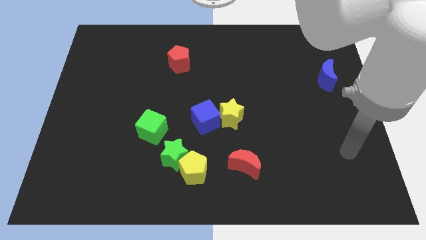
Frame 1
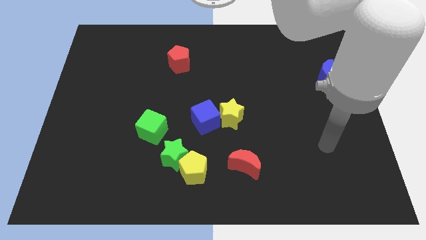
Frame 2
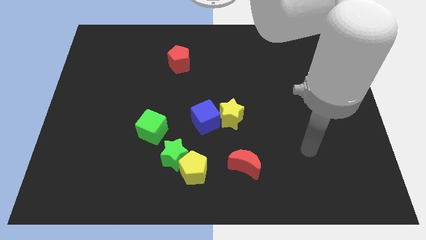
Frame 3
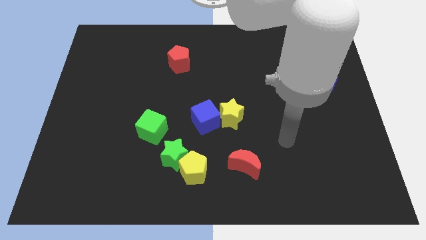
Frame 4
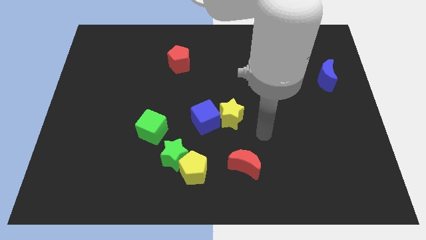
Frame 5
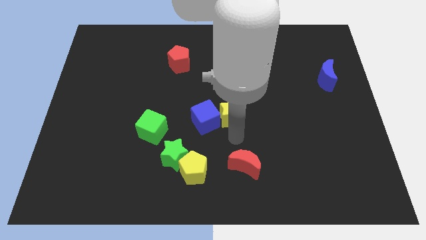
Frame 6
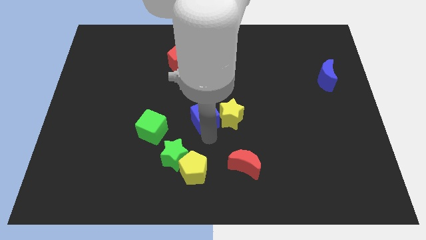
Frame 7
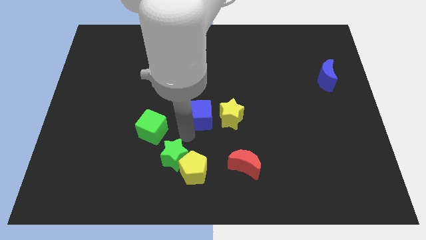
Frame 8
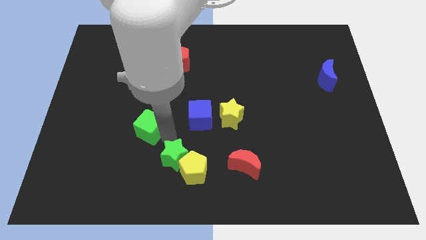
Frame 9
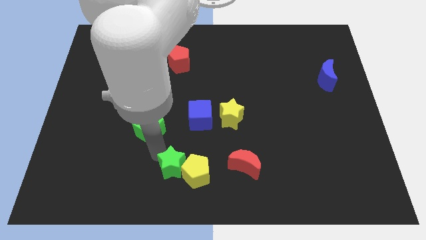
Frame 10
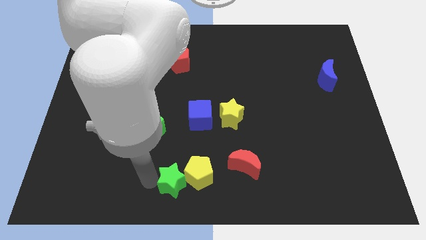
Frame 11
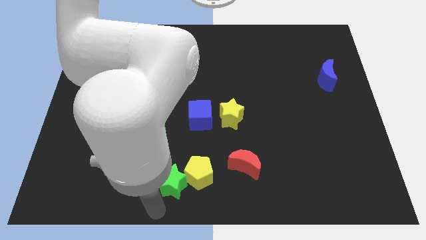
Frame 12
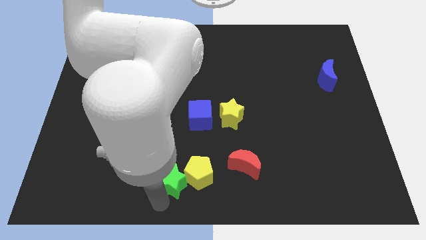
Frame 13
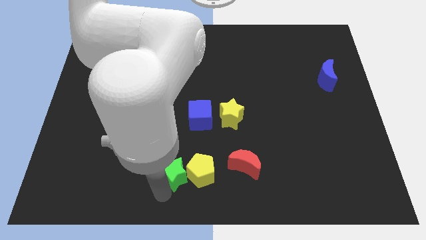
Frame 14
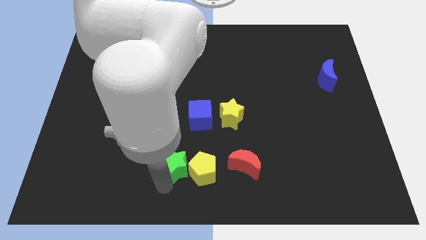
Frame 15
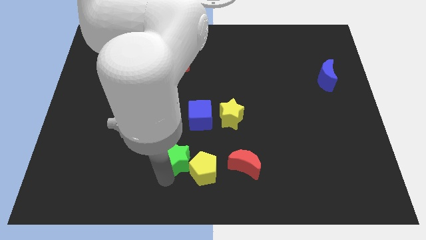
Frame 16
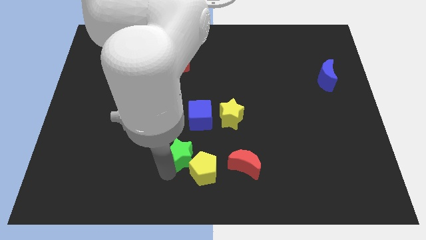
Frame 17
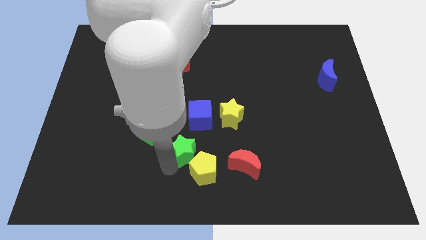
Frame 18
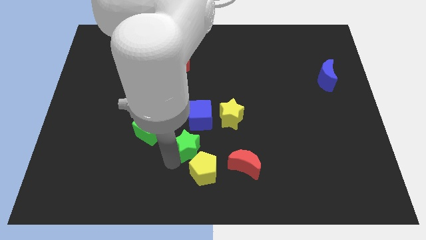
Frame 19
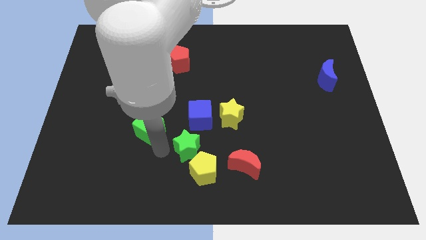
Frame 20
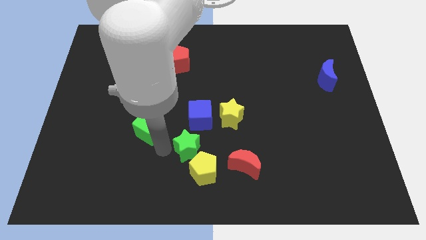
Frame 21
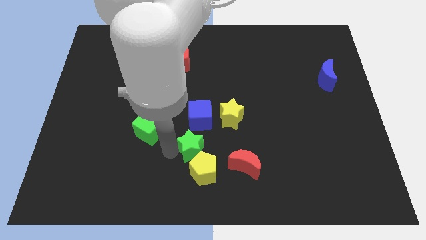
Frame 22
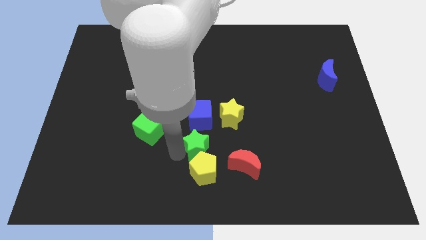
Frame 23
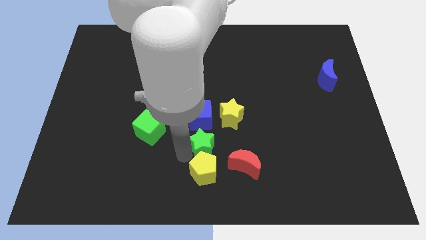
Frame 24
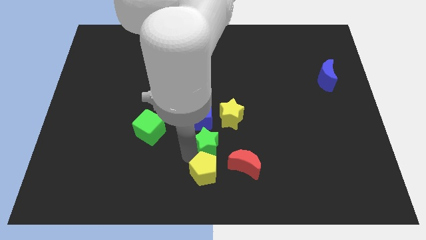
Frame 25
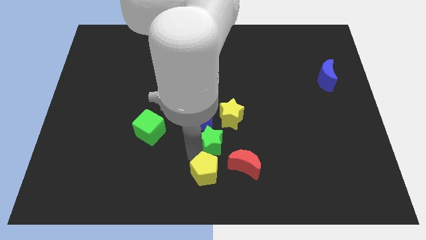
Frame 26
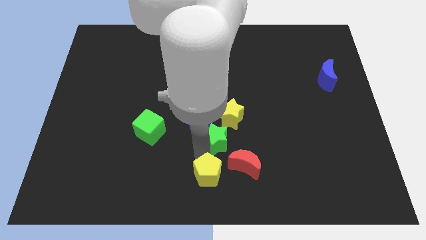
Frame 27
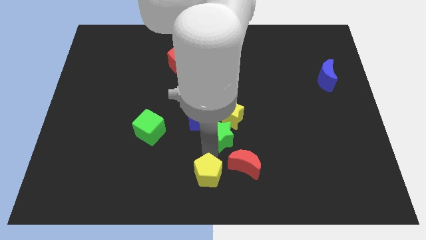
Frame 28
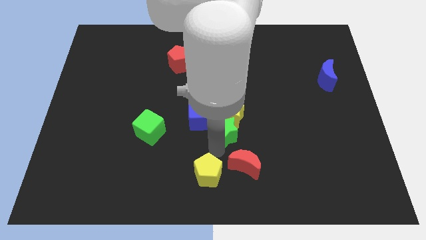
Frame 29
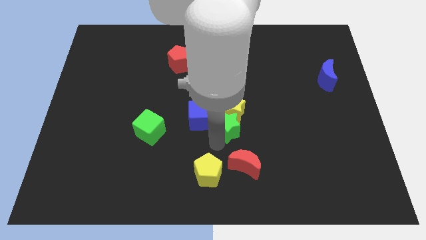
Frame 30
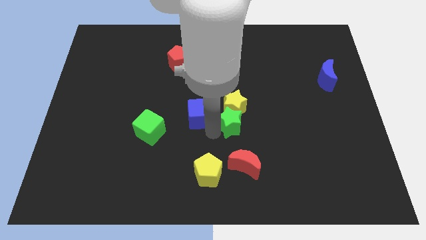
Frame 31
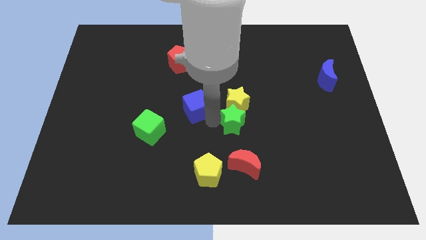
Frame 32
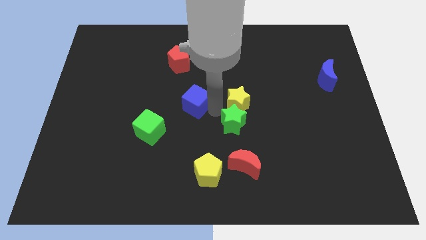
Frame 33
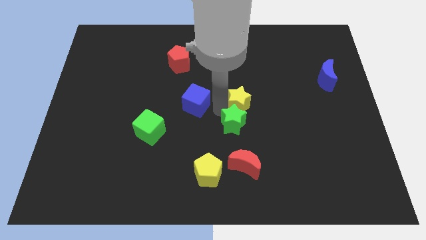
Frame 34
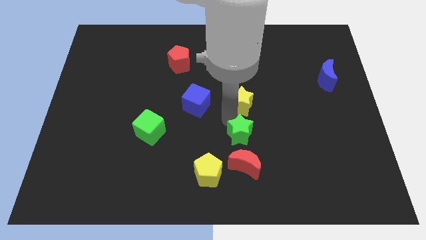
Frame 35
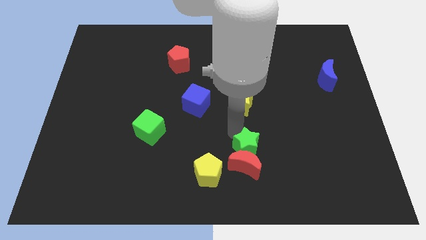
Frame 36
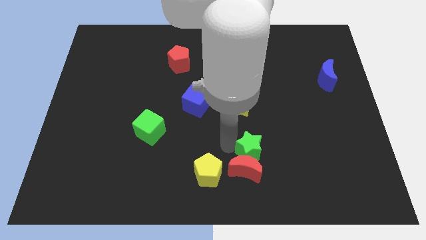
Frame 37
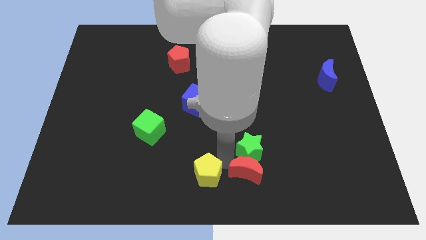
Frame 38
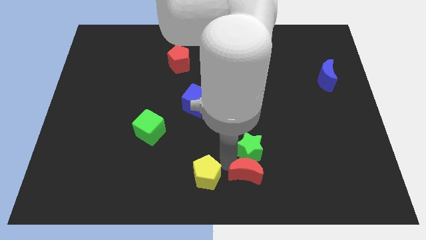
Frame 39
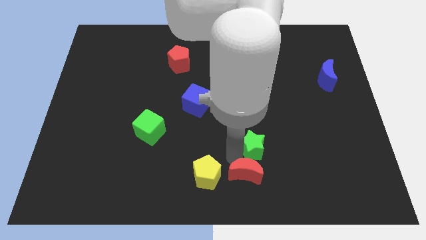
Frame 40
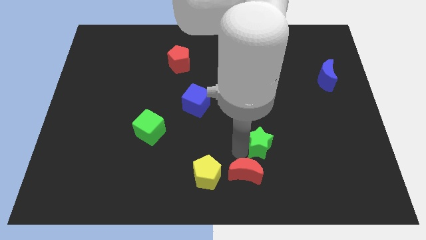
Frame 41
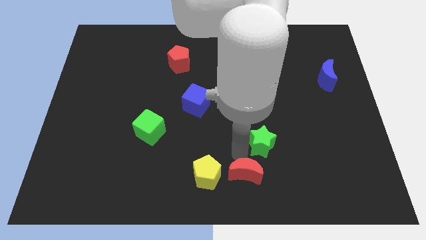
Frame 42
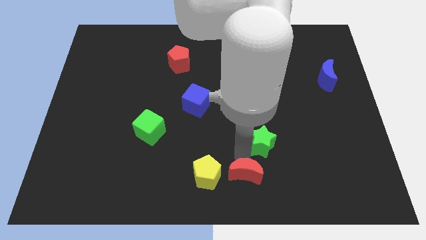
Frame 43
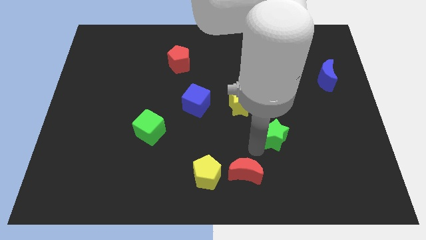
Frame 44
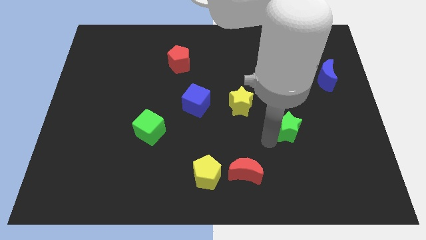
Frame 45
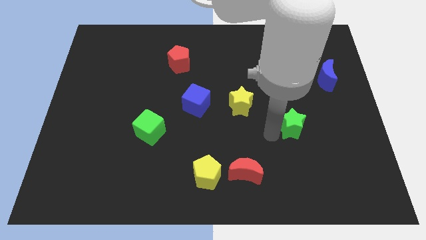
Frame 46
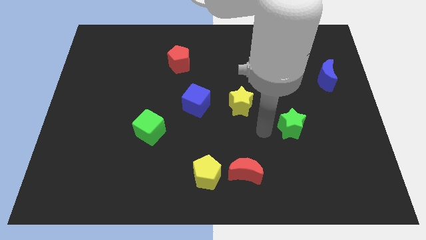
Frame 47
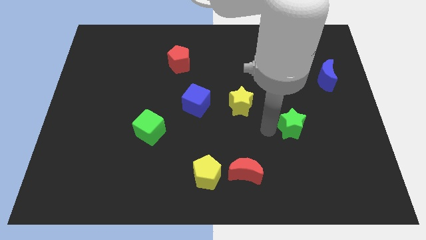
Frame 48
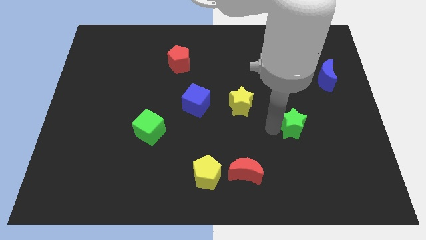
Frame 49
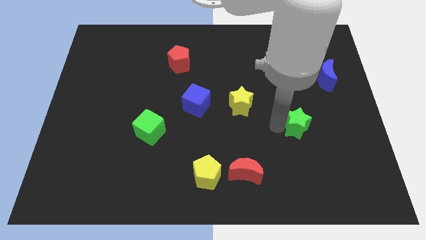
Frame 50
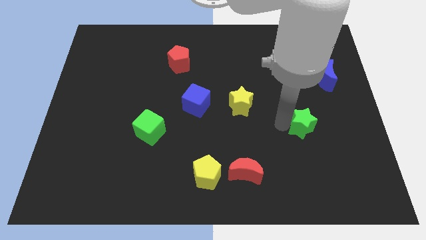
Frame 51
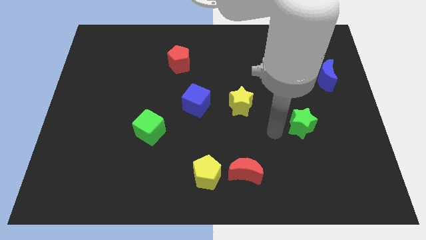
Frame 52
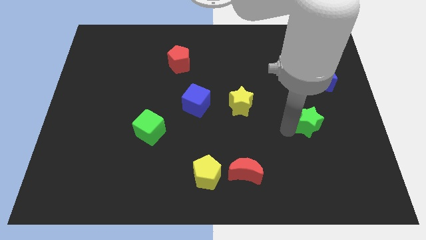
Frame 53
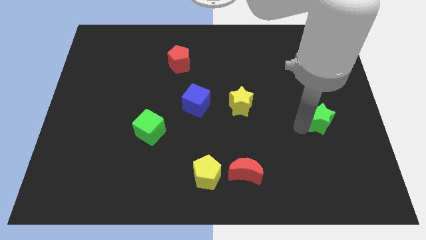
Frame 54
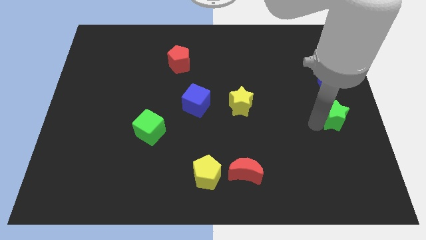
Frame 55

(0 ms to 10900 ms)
move the green star to the right side of the board
